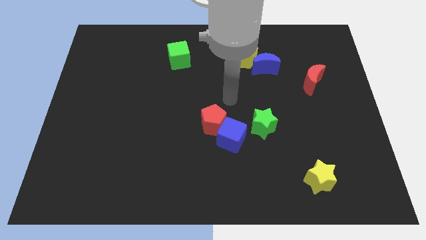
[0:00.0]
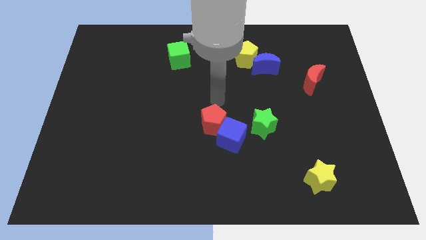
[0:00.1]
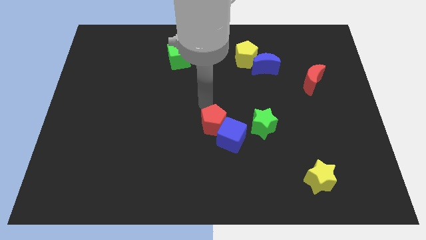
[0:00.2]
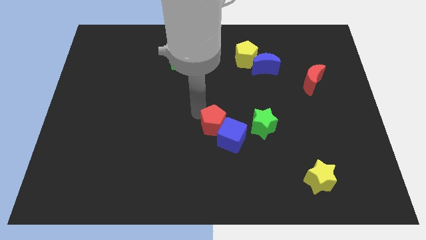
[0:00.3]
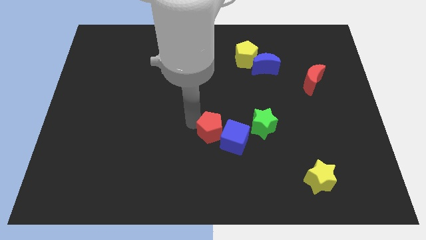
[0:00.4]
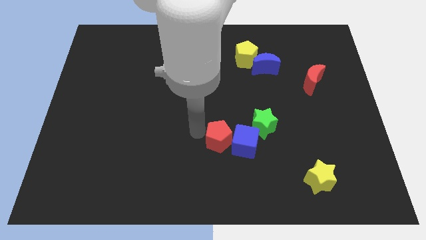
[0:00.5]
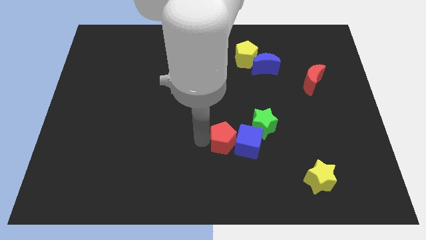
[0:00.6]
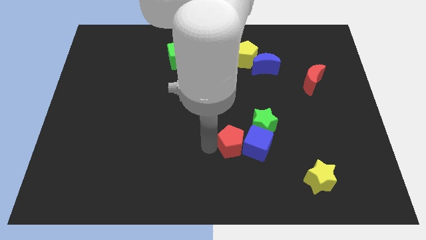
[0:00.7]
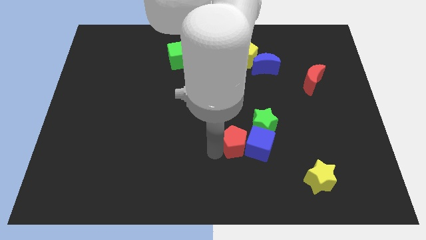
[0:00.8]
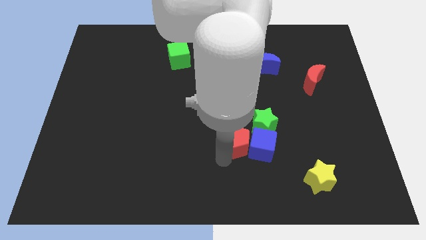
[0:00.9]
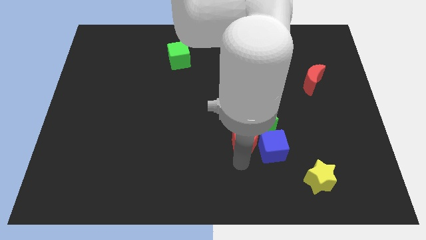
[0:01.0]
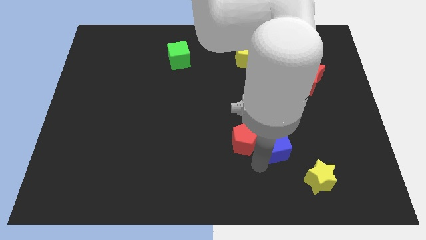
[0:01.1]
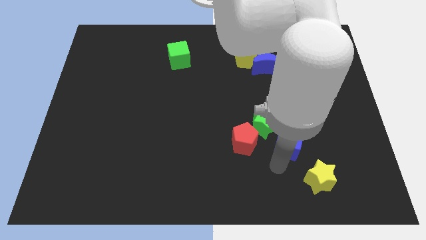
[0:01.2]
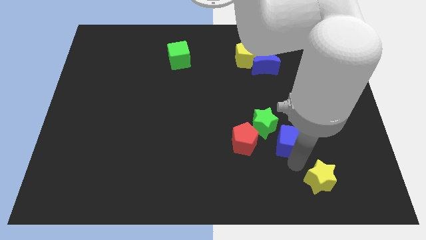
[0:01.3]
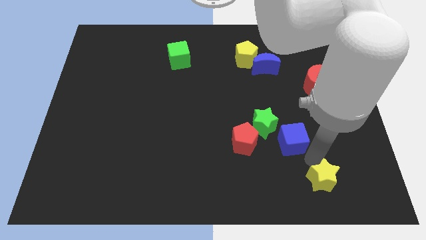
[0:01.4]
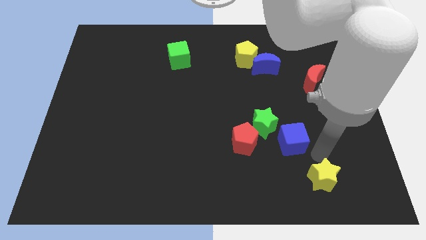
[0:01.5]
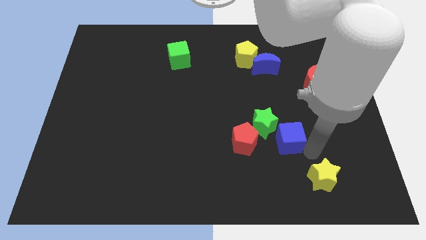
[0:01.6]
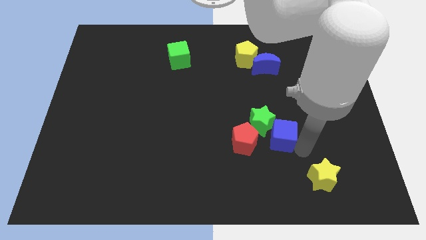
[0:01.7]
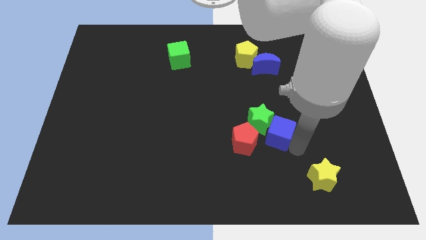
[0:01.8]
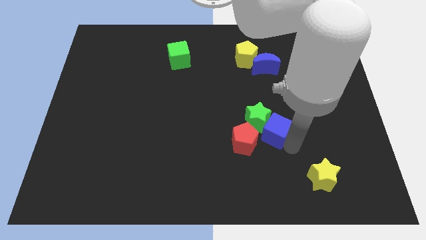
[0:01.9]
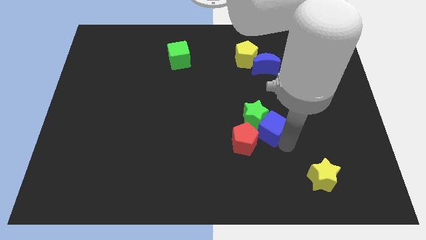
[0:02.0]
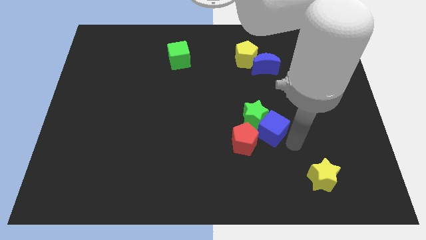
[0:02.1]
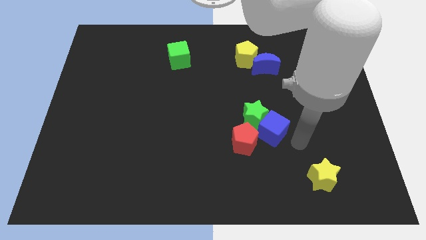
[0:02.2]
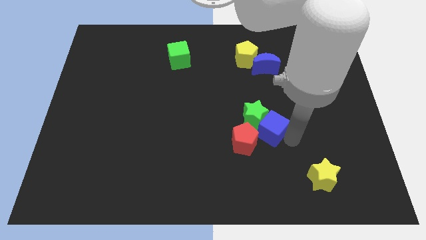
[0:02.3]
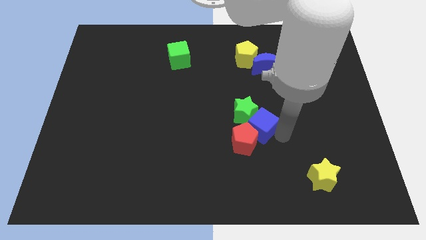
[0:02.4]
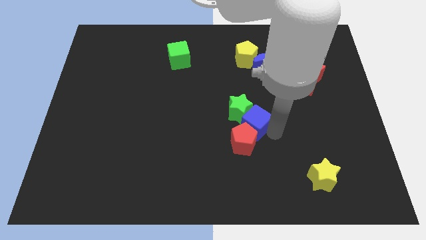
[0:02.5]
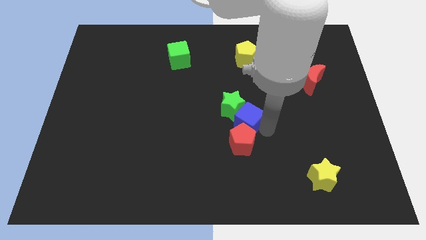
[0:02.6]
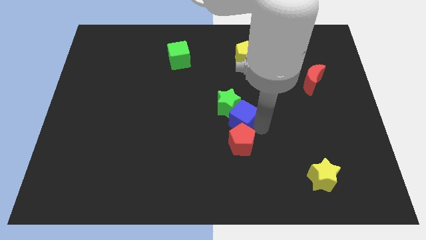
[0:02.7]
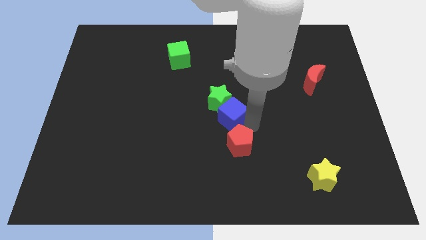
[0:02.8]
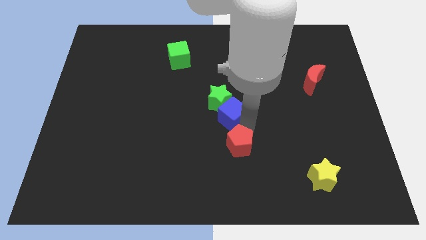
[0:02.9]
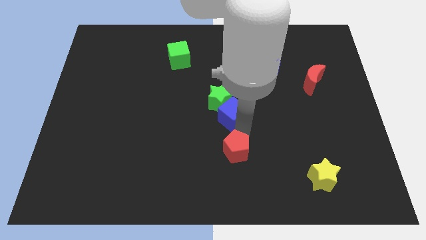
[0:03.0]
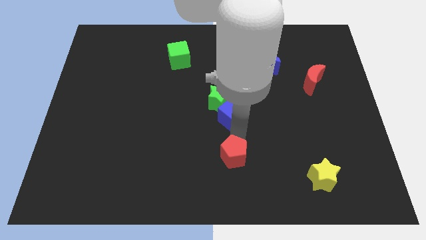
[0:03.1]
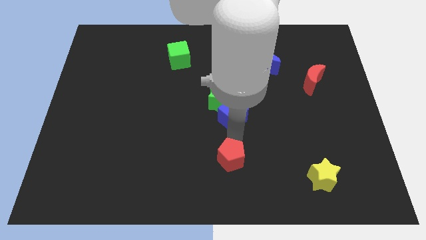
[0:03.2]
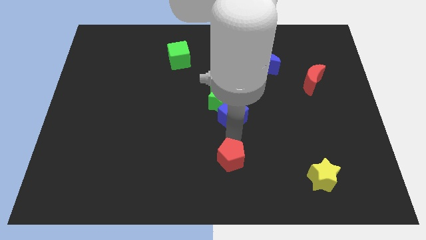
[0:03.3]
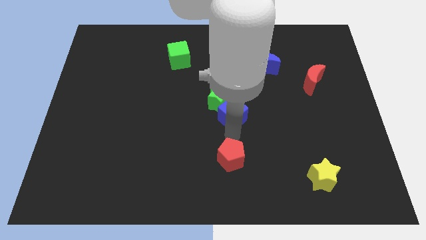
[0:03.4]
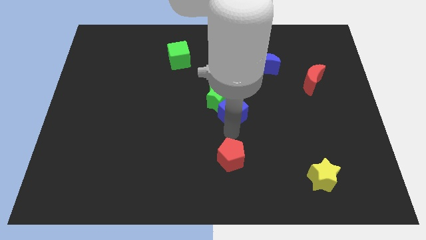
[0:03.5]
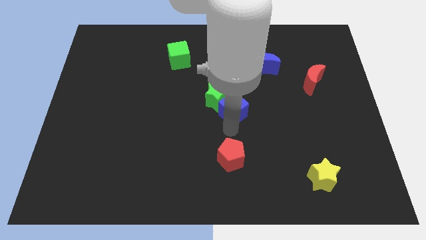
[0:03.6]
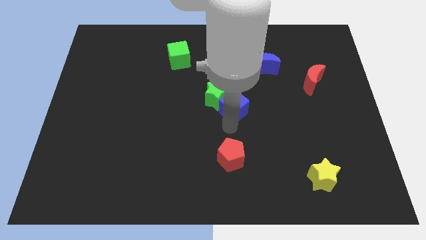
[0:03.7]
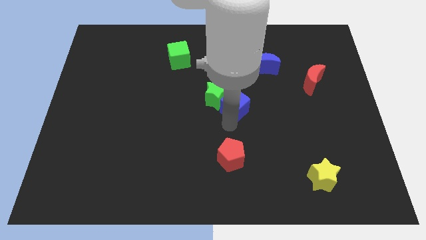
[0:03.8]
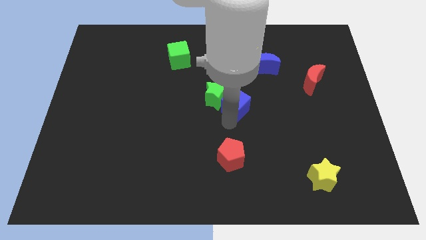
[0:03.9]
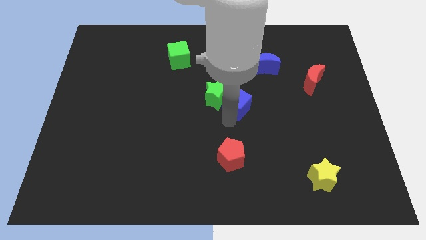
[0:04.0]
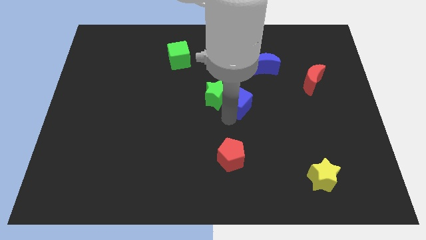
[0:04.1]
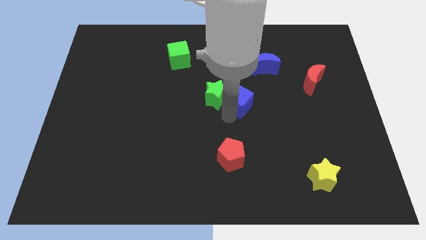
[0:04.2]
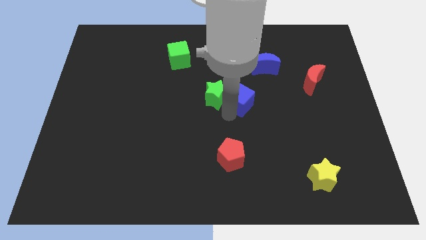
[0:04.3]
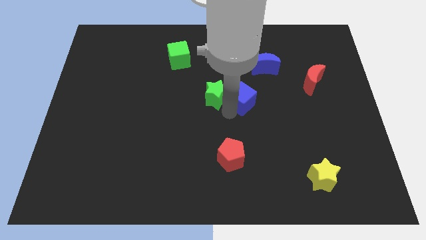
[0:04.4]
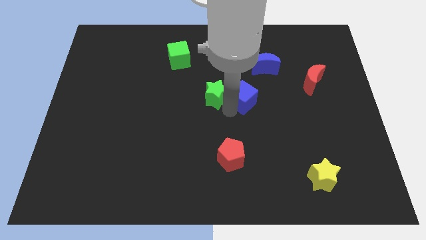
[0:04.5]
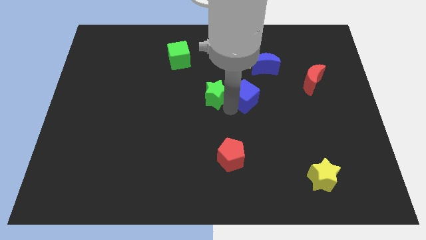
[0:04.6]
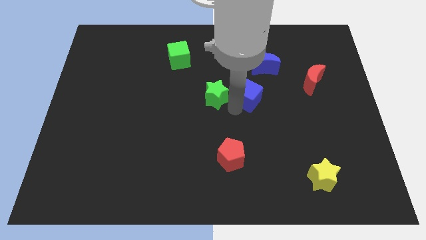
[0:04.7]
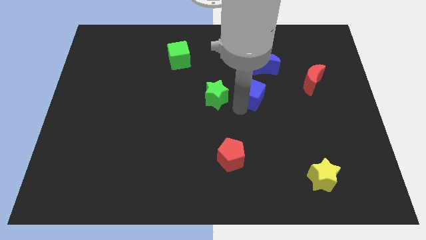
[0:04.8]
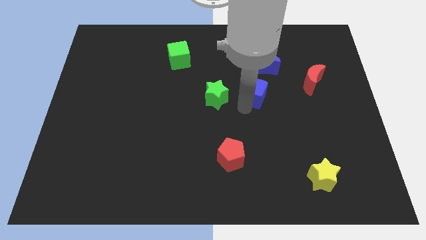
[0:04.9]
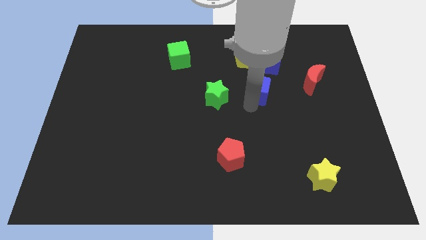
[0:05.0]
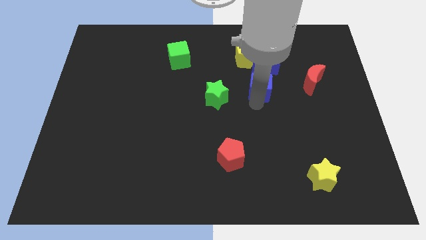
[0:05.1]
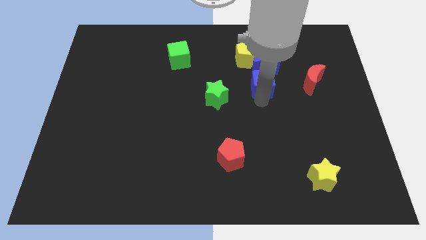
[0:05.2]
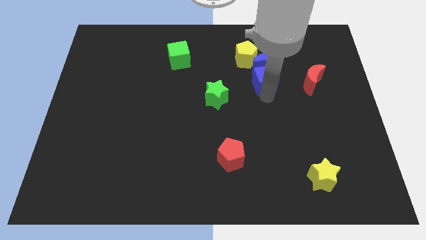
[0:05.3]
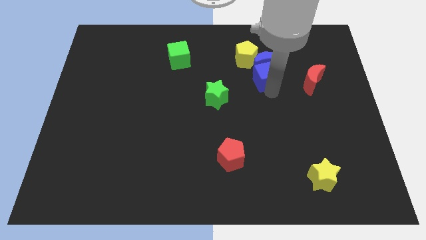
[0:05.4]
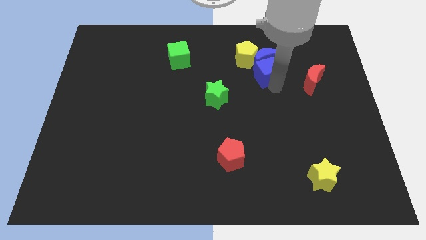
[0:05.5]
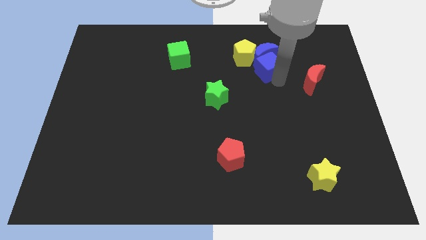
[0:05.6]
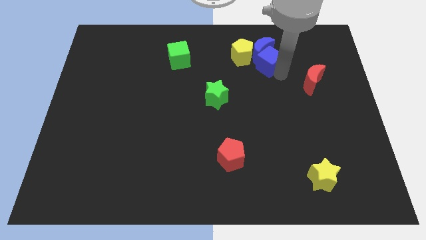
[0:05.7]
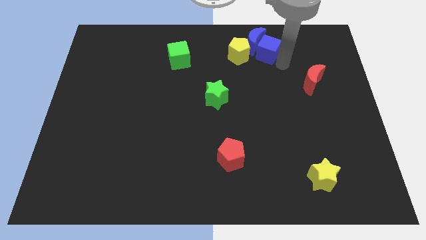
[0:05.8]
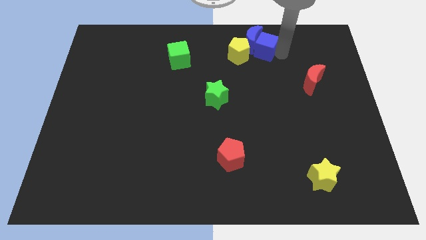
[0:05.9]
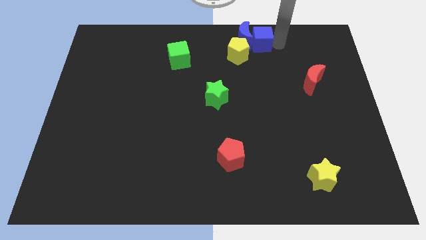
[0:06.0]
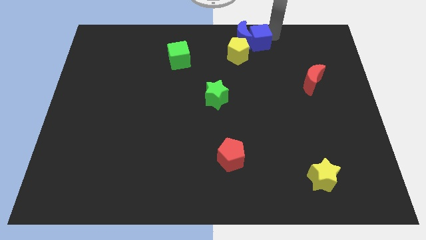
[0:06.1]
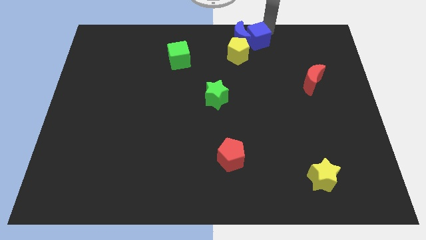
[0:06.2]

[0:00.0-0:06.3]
slide the blue cube to the top
